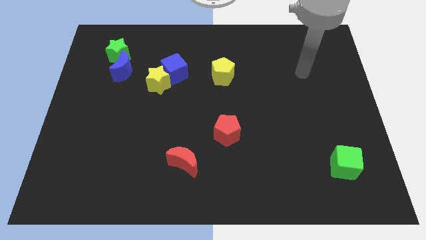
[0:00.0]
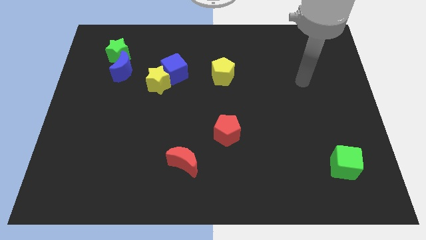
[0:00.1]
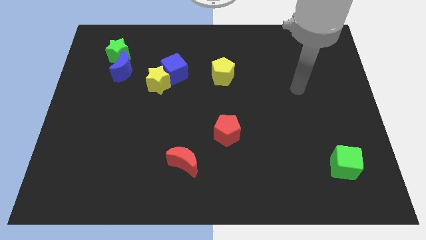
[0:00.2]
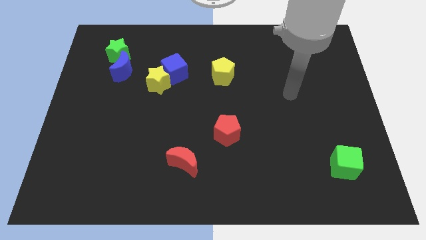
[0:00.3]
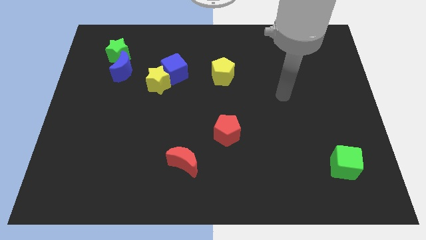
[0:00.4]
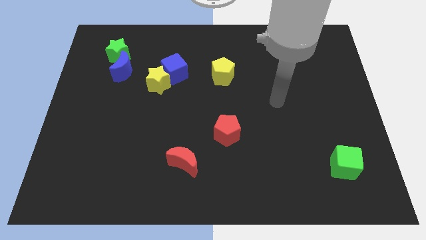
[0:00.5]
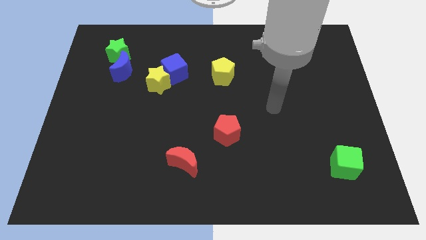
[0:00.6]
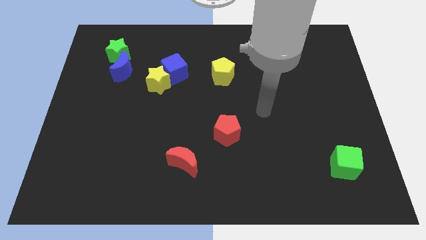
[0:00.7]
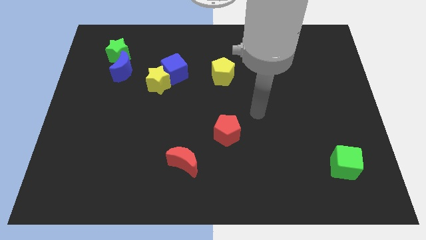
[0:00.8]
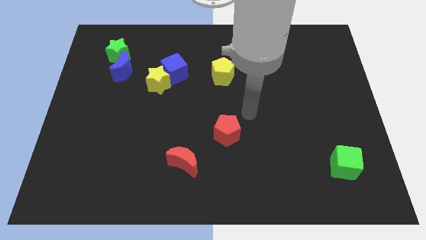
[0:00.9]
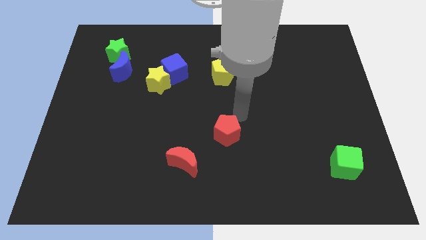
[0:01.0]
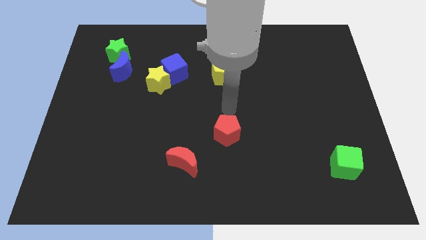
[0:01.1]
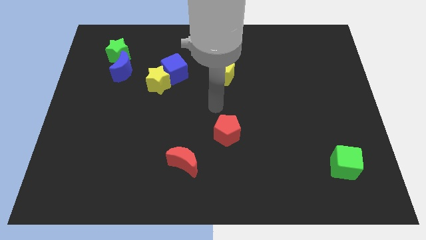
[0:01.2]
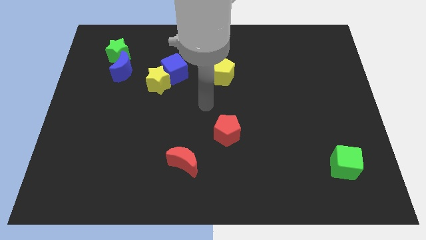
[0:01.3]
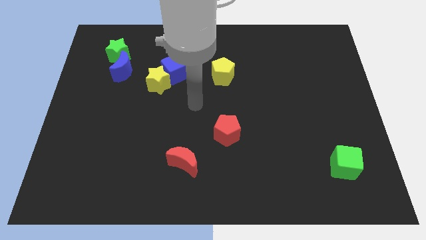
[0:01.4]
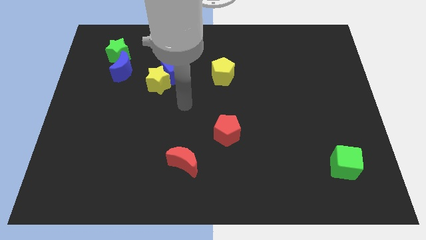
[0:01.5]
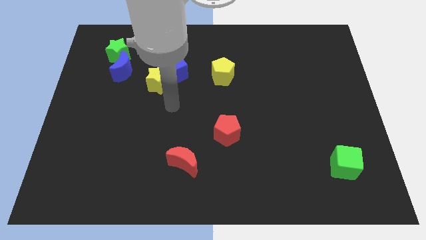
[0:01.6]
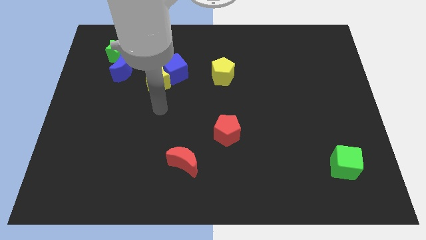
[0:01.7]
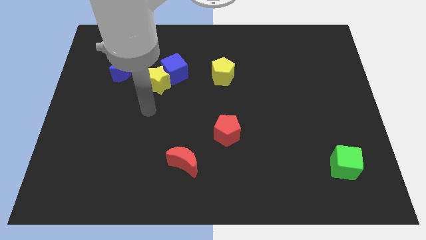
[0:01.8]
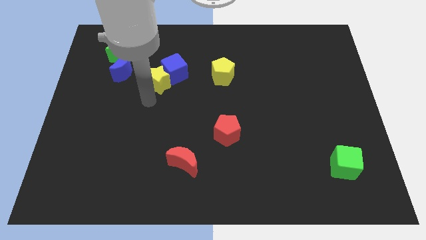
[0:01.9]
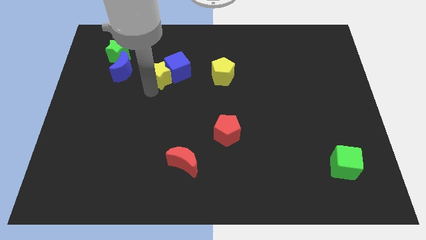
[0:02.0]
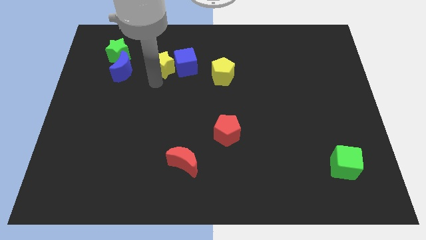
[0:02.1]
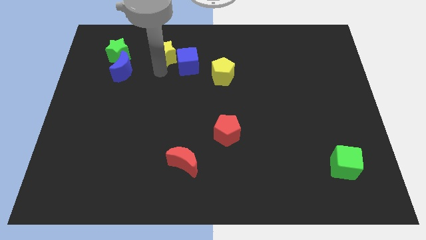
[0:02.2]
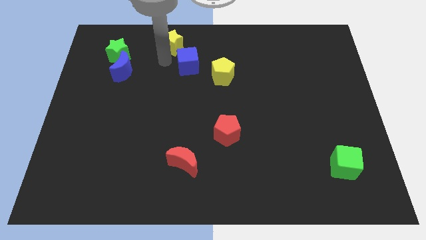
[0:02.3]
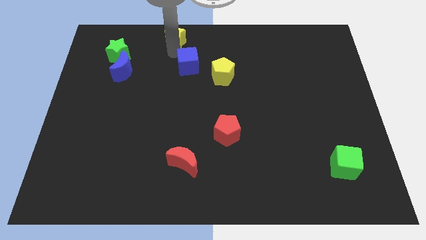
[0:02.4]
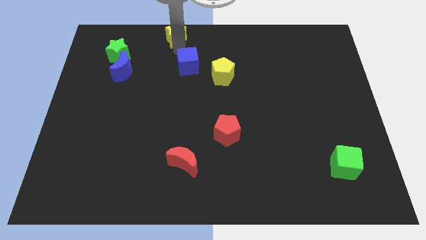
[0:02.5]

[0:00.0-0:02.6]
pull the blue cube apart from the yellow star

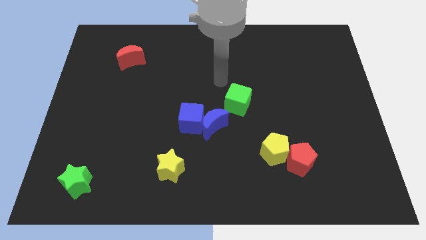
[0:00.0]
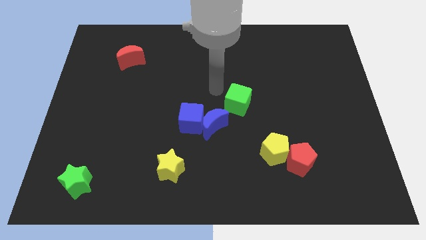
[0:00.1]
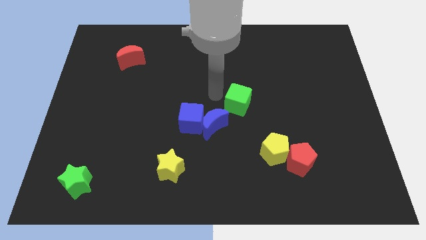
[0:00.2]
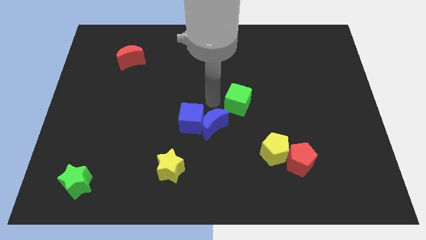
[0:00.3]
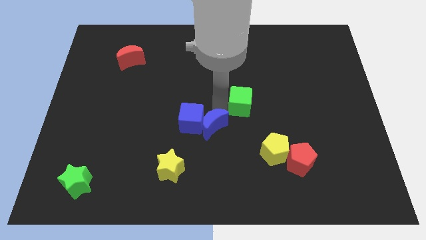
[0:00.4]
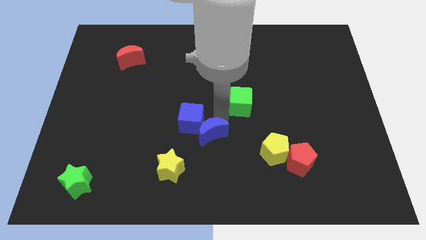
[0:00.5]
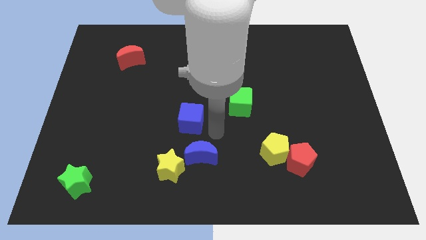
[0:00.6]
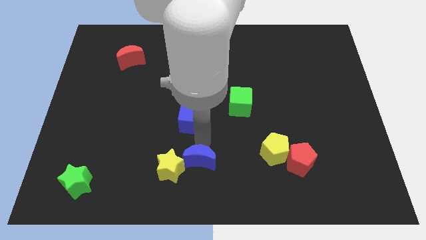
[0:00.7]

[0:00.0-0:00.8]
pull the blue cube apart from the blue moon

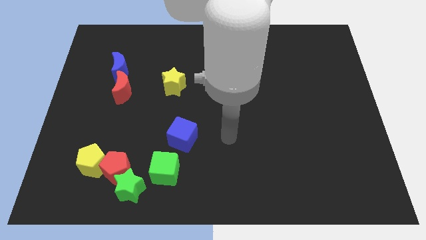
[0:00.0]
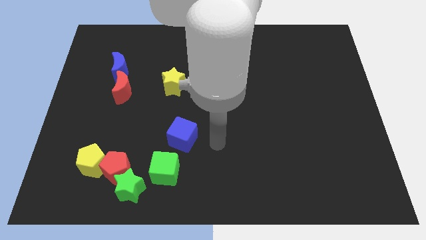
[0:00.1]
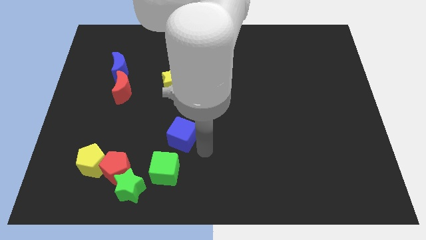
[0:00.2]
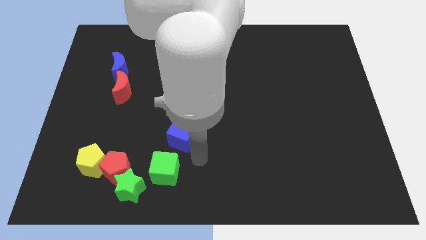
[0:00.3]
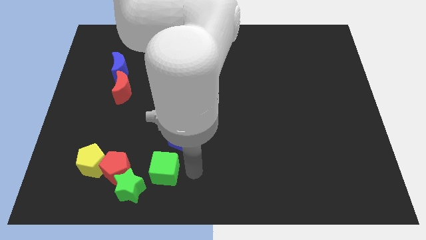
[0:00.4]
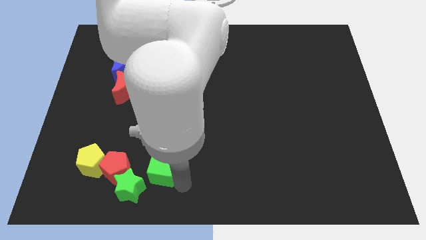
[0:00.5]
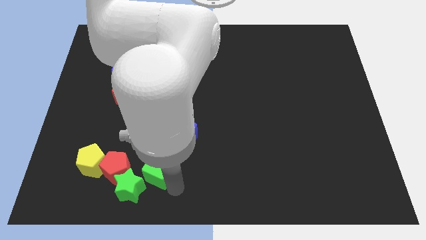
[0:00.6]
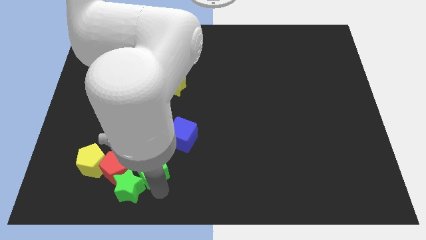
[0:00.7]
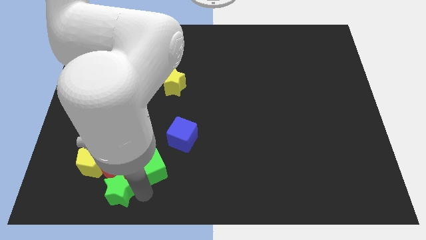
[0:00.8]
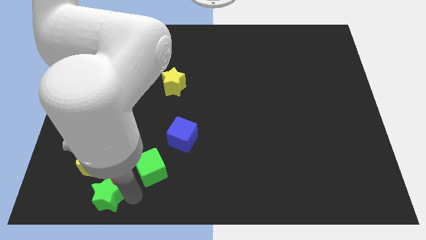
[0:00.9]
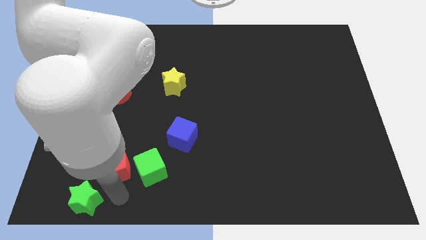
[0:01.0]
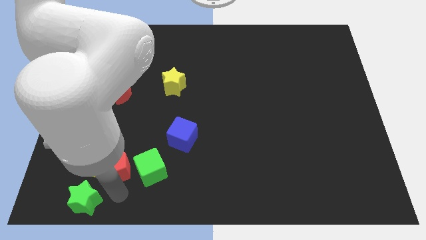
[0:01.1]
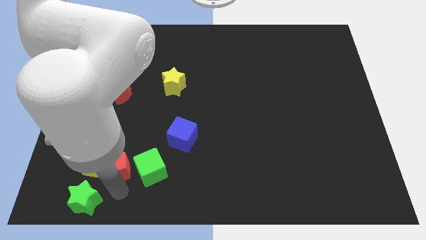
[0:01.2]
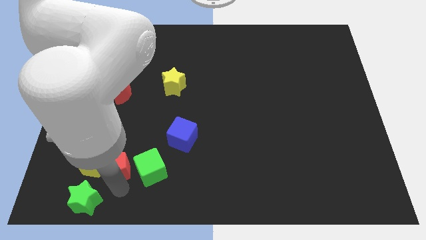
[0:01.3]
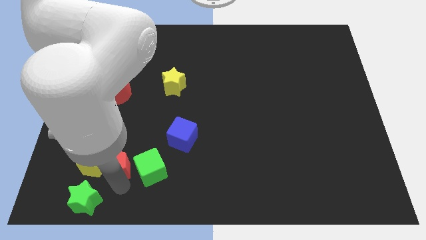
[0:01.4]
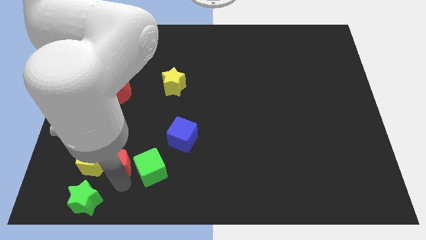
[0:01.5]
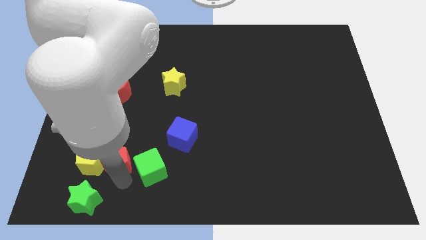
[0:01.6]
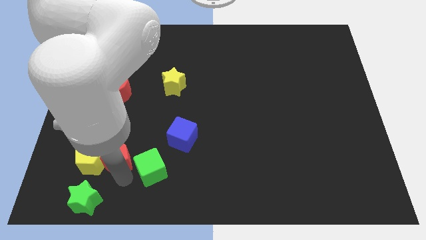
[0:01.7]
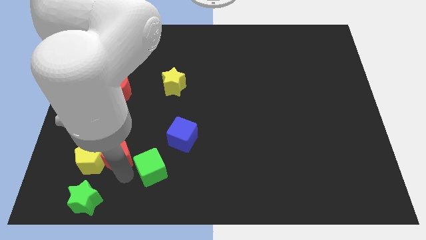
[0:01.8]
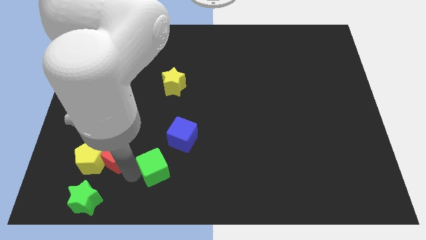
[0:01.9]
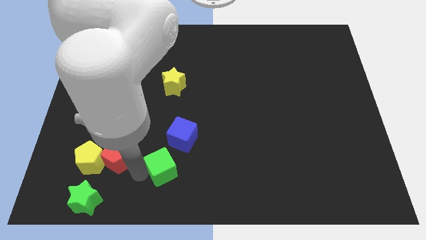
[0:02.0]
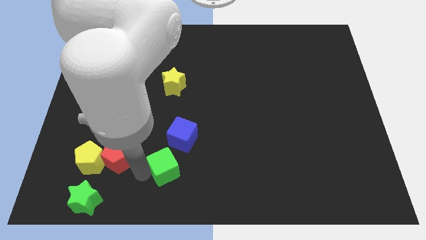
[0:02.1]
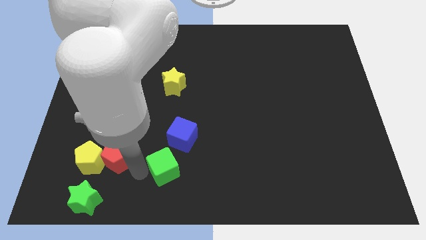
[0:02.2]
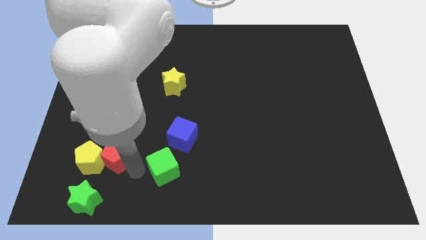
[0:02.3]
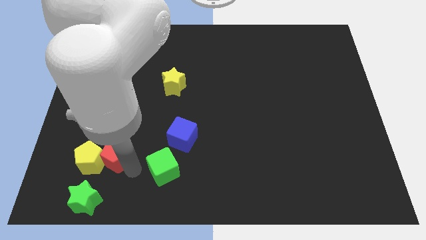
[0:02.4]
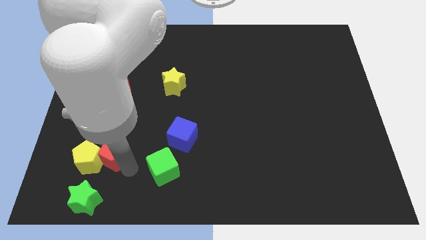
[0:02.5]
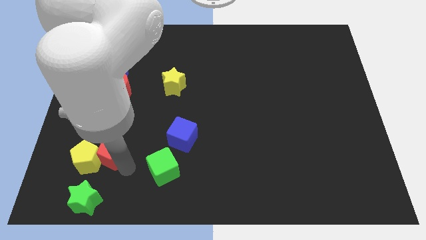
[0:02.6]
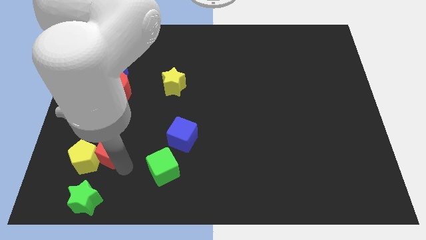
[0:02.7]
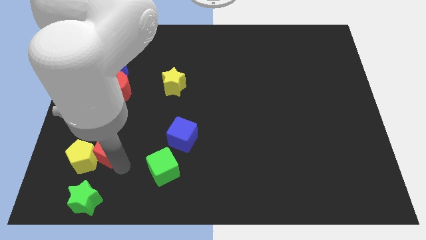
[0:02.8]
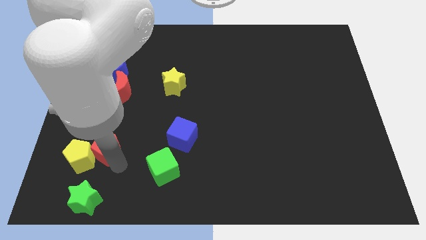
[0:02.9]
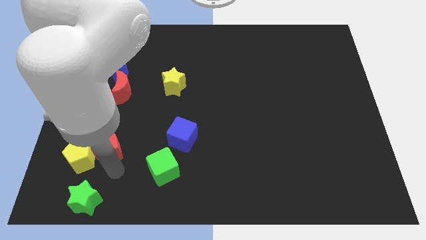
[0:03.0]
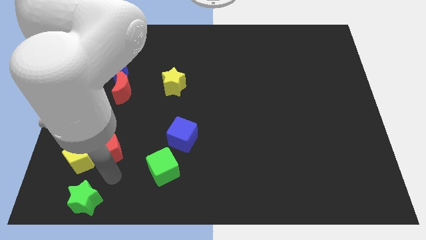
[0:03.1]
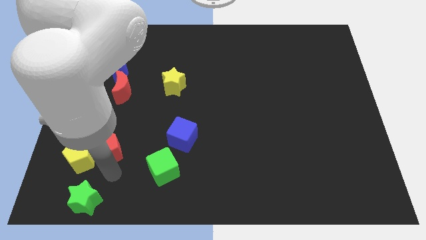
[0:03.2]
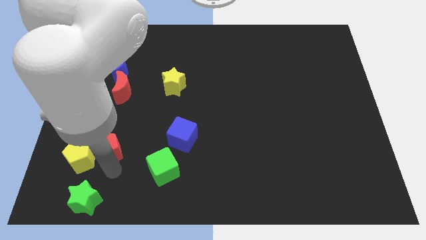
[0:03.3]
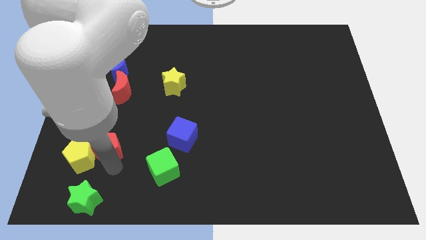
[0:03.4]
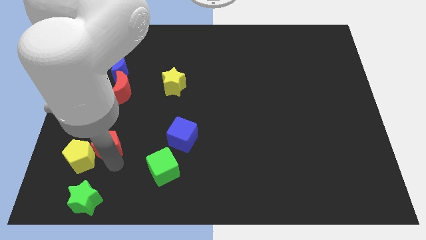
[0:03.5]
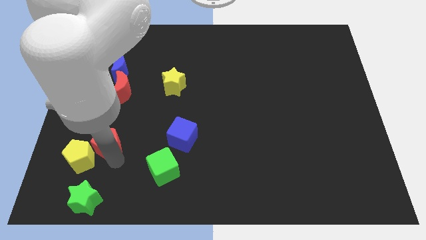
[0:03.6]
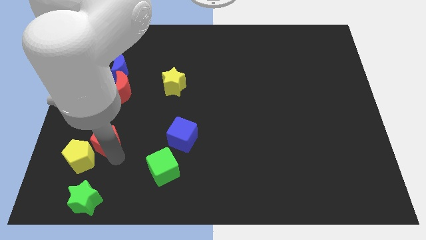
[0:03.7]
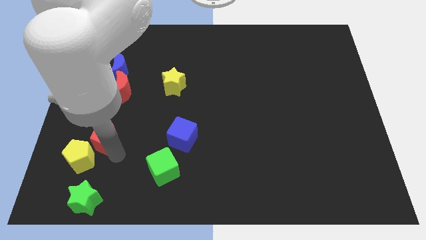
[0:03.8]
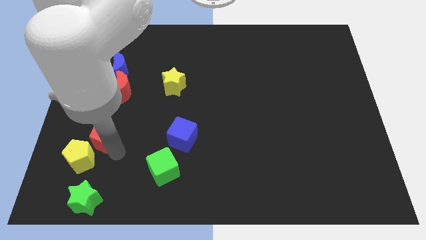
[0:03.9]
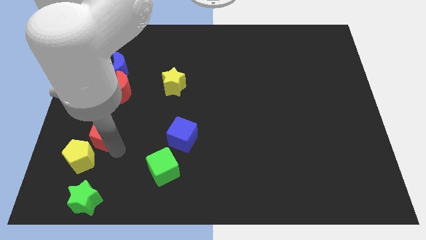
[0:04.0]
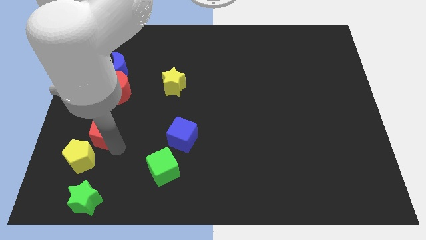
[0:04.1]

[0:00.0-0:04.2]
pull the red pentagon apart from the green star, yellow pentagon, and green cube

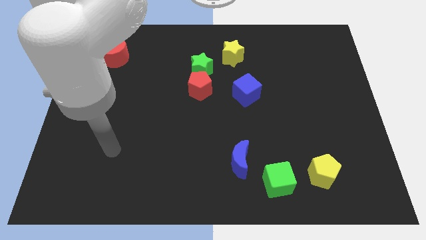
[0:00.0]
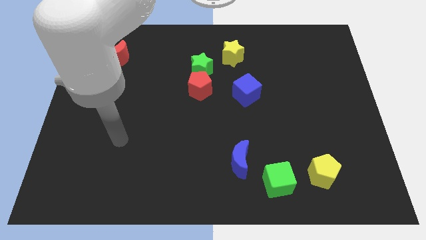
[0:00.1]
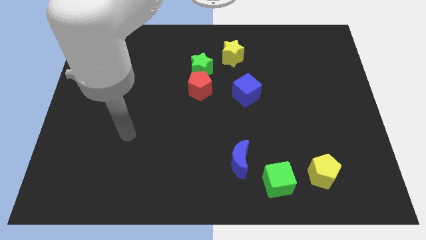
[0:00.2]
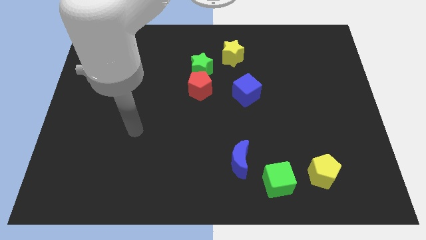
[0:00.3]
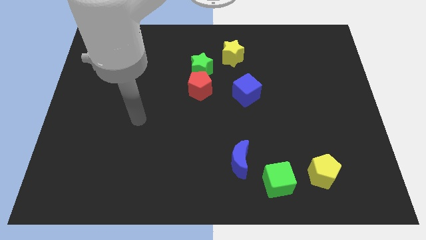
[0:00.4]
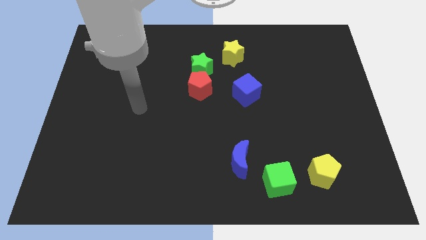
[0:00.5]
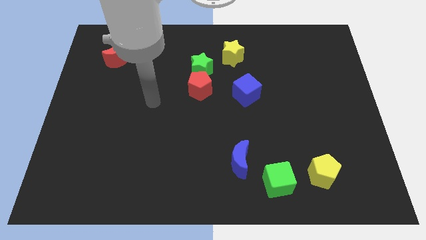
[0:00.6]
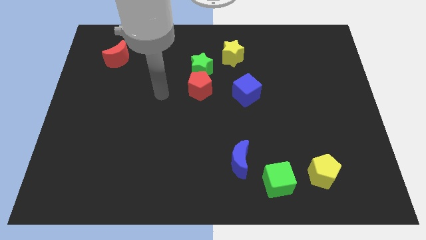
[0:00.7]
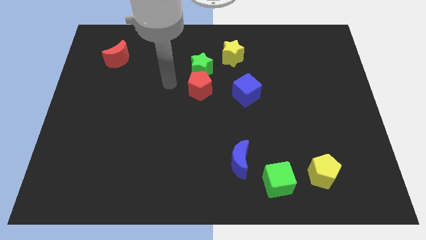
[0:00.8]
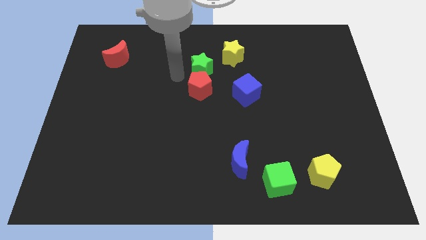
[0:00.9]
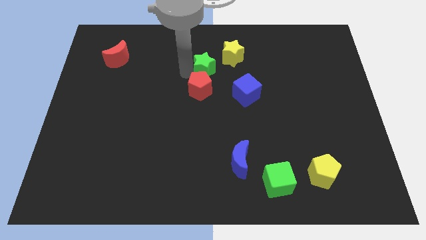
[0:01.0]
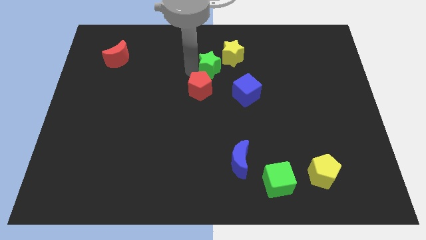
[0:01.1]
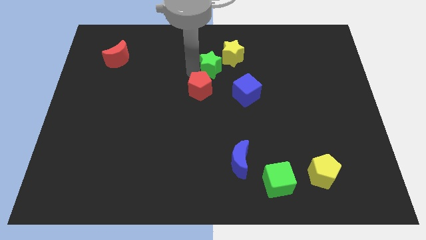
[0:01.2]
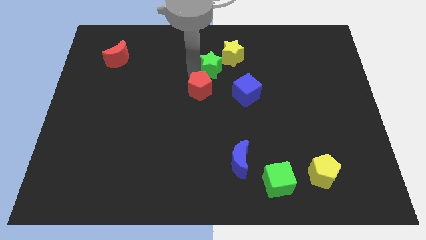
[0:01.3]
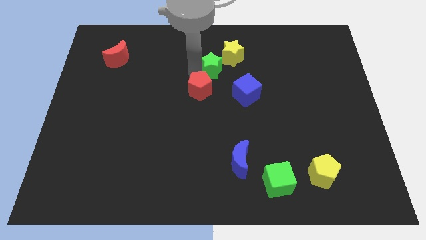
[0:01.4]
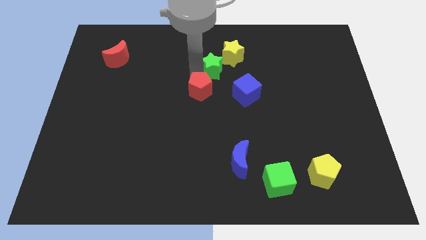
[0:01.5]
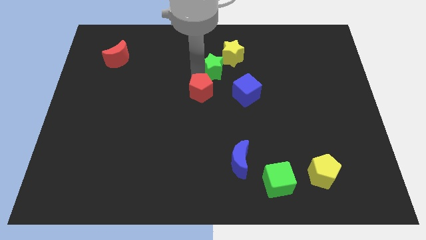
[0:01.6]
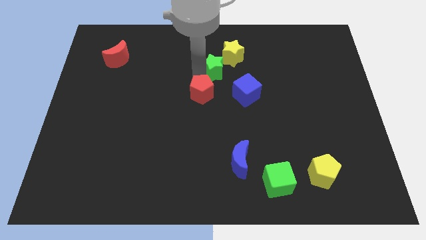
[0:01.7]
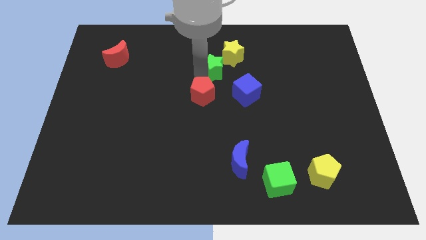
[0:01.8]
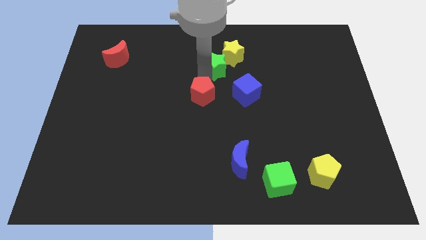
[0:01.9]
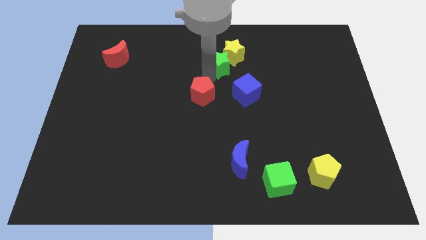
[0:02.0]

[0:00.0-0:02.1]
move the red pentagon away from the green star
